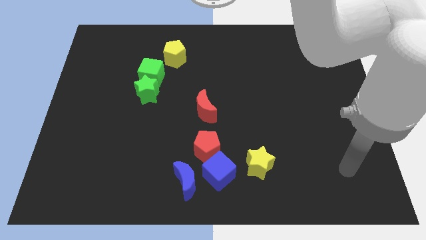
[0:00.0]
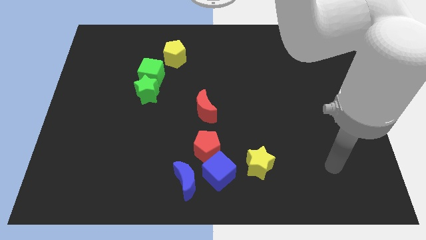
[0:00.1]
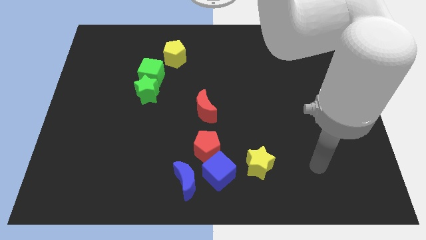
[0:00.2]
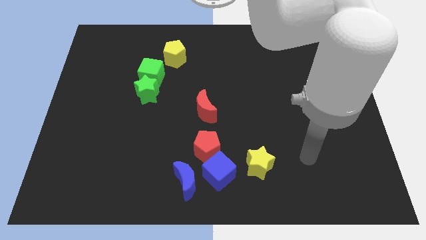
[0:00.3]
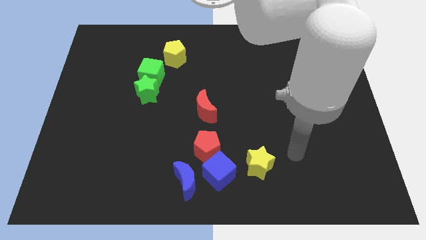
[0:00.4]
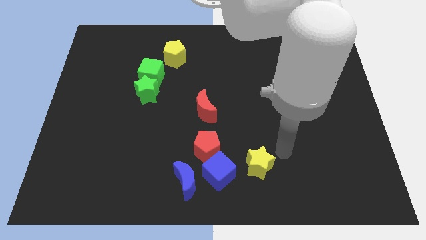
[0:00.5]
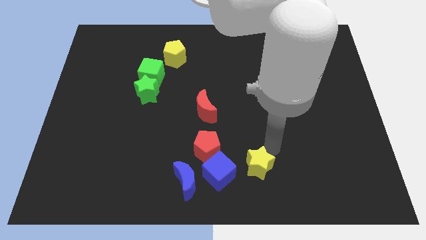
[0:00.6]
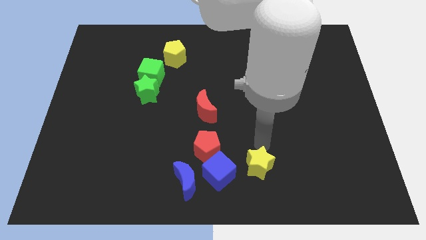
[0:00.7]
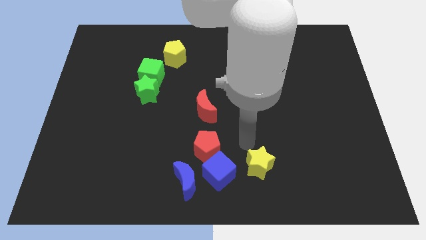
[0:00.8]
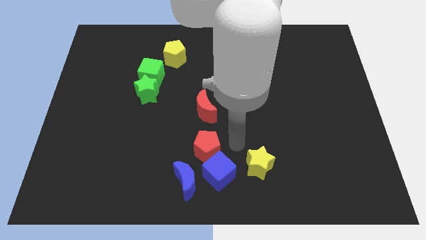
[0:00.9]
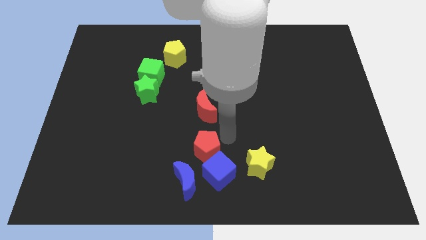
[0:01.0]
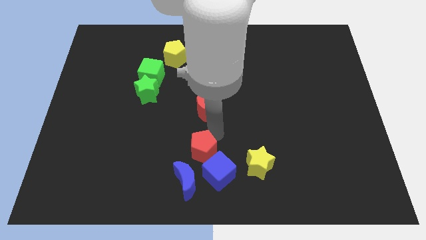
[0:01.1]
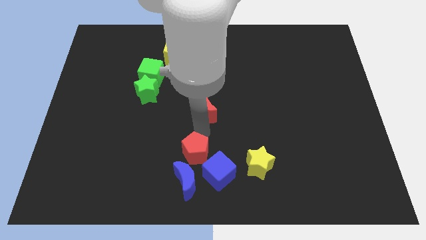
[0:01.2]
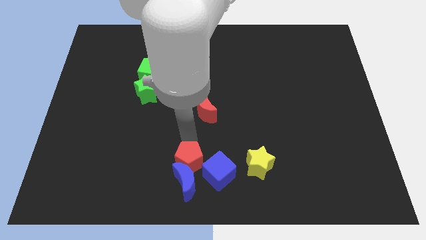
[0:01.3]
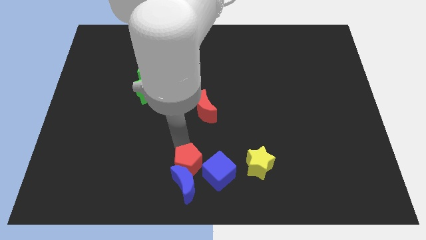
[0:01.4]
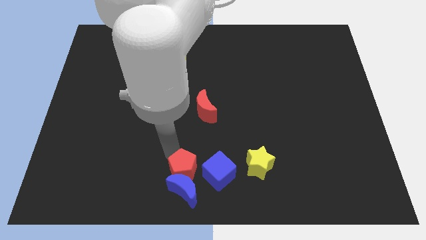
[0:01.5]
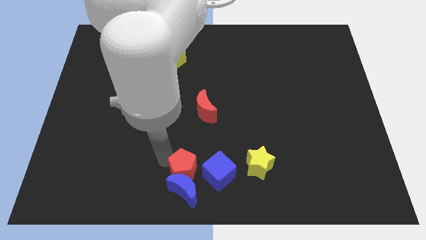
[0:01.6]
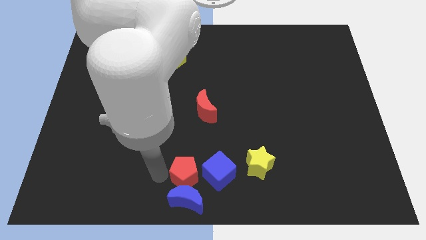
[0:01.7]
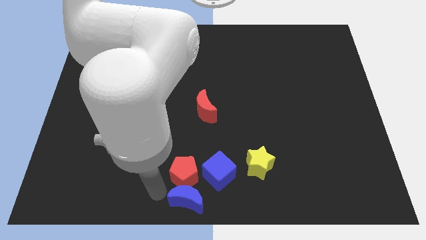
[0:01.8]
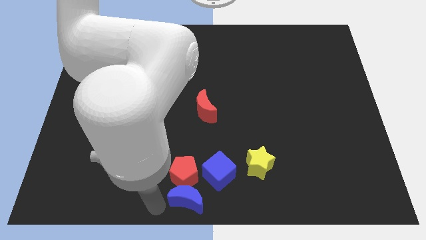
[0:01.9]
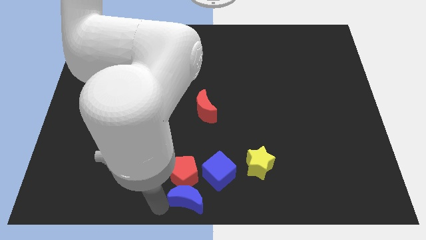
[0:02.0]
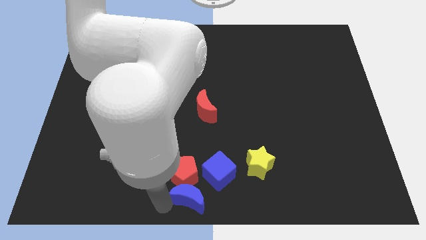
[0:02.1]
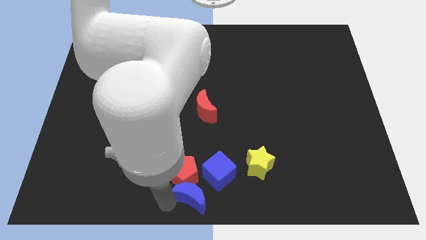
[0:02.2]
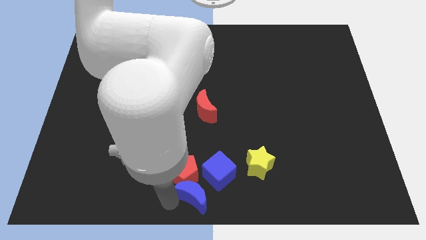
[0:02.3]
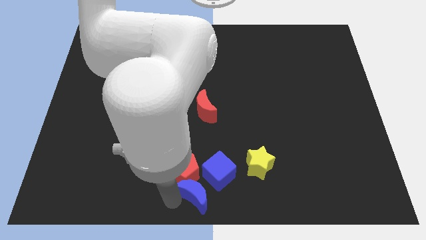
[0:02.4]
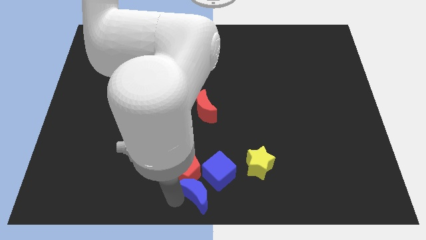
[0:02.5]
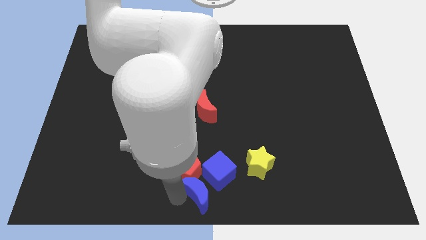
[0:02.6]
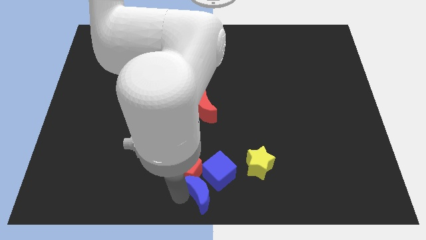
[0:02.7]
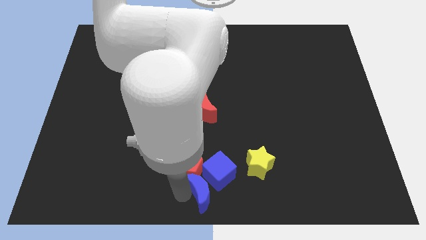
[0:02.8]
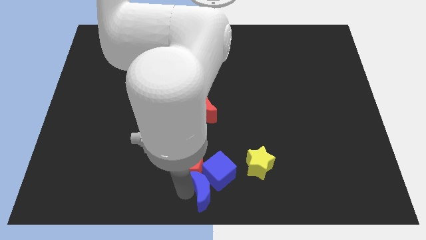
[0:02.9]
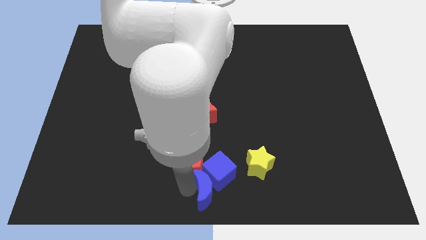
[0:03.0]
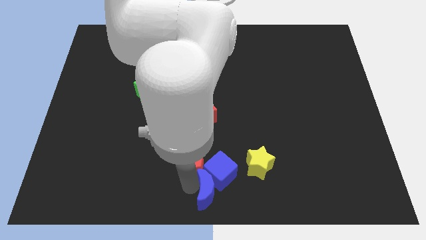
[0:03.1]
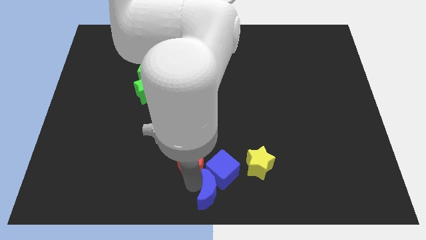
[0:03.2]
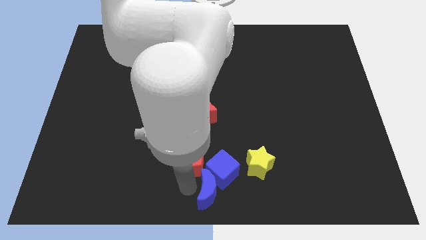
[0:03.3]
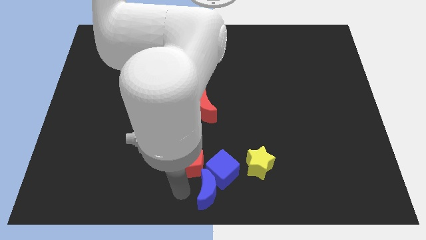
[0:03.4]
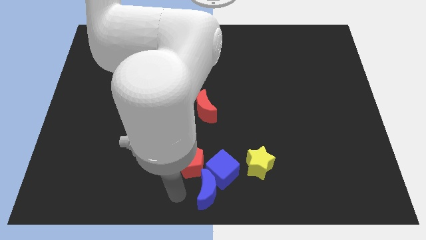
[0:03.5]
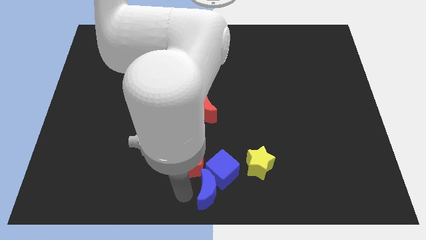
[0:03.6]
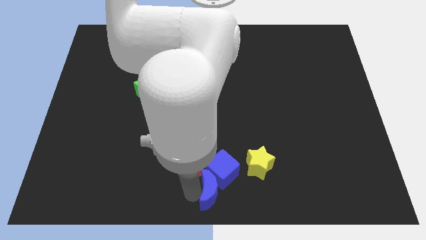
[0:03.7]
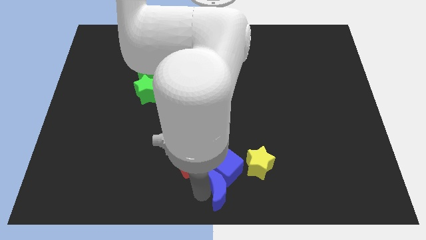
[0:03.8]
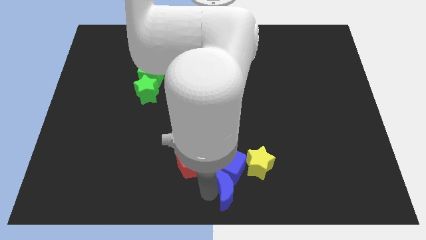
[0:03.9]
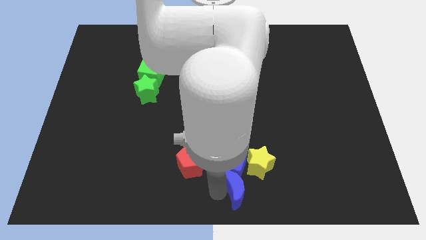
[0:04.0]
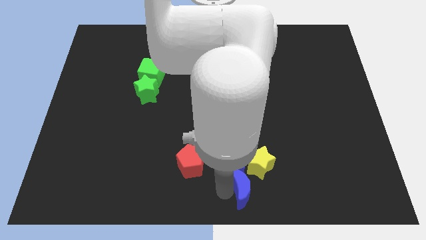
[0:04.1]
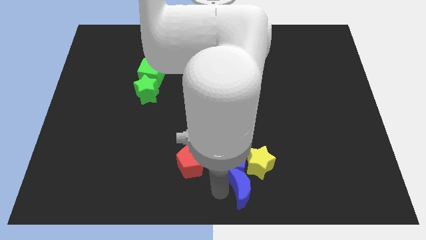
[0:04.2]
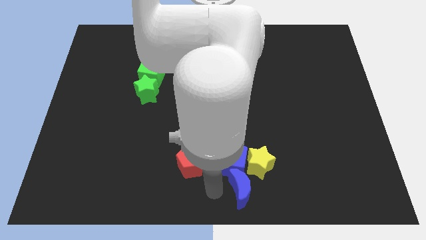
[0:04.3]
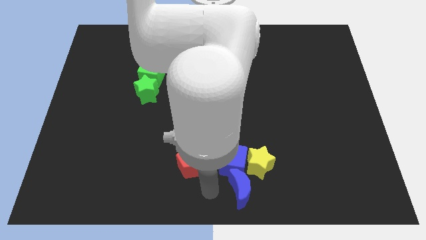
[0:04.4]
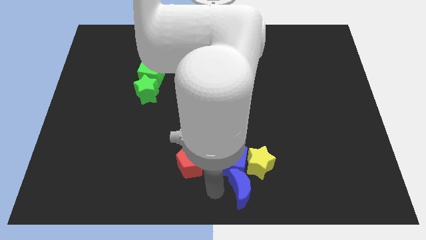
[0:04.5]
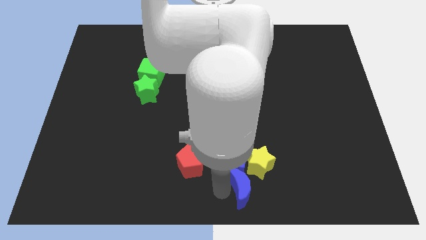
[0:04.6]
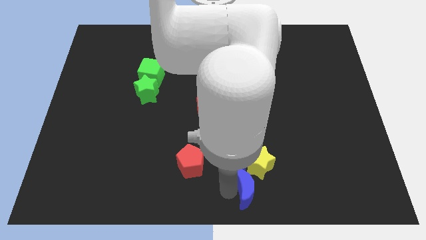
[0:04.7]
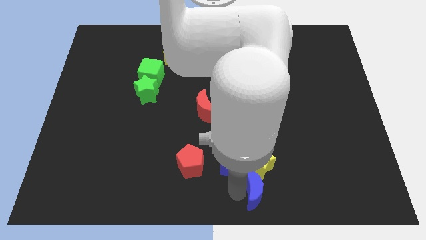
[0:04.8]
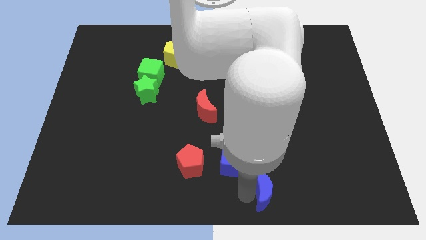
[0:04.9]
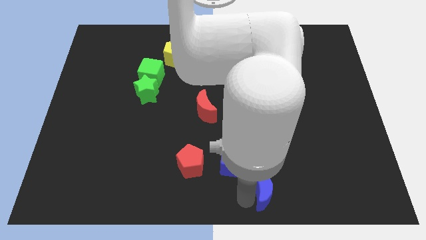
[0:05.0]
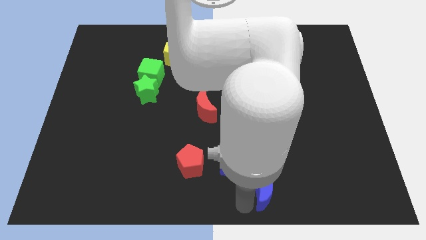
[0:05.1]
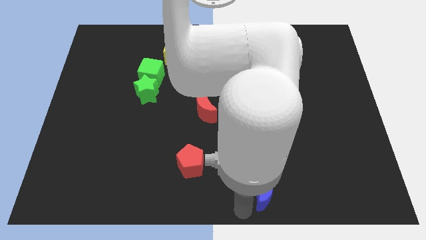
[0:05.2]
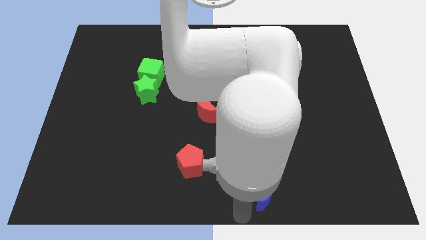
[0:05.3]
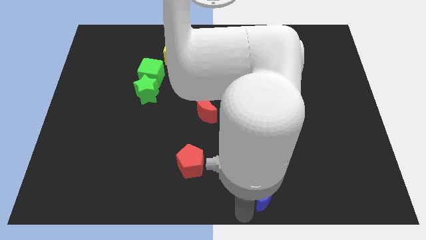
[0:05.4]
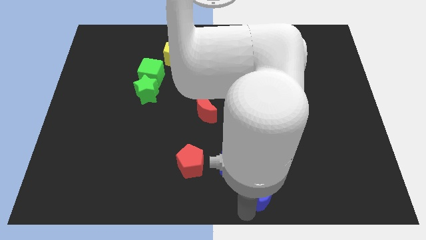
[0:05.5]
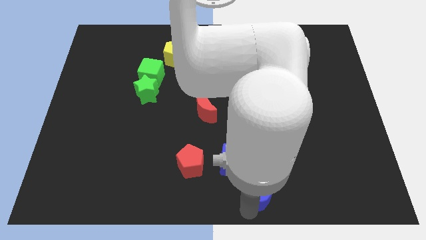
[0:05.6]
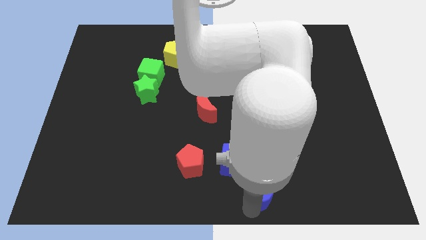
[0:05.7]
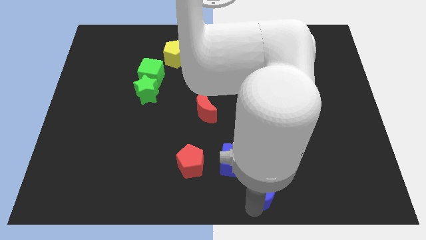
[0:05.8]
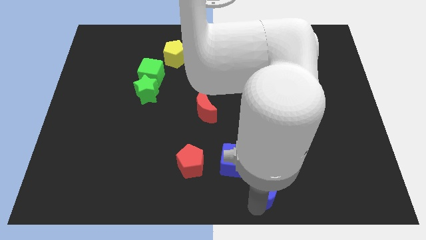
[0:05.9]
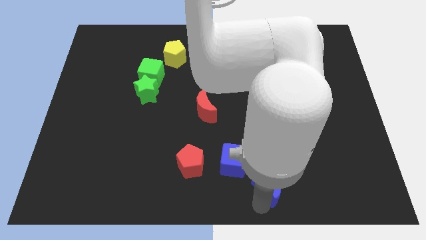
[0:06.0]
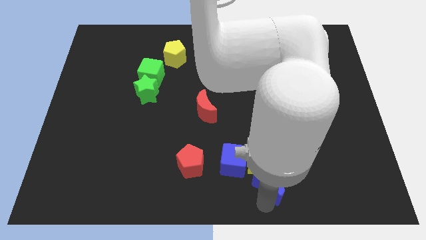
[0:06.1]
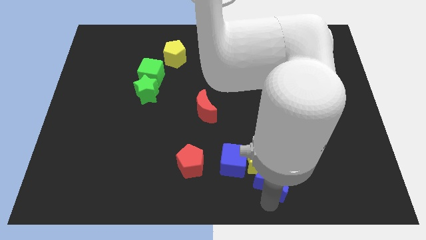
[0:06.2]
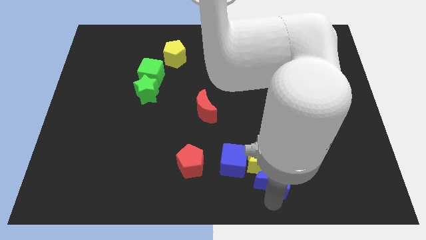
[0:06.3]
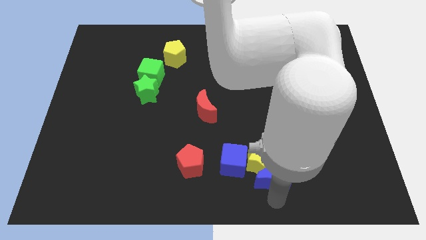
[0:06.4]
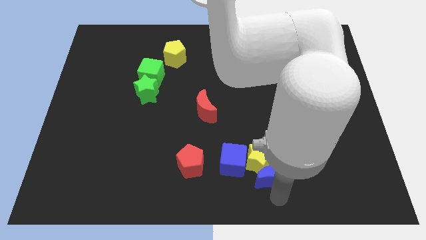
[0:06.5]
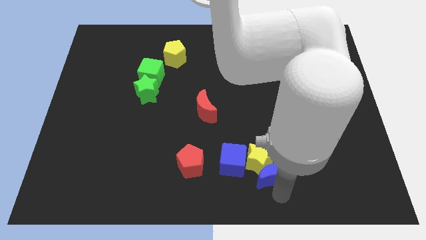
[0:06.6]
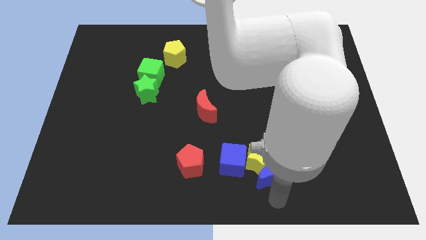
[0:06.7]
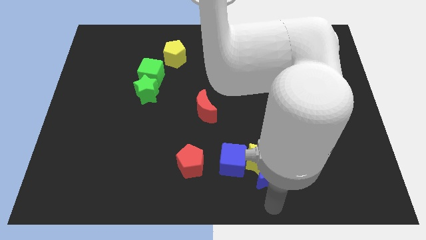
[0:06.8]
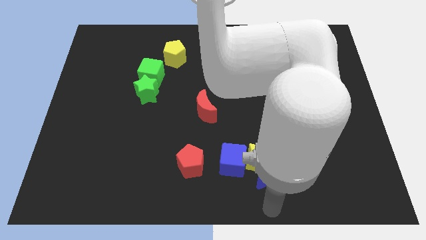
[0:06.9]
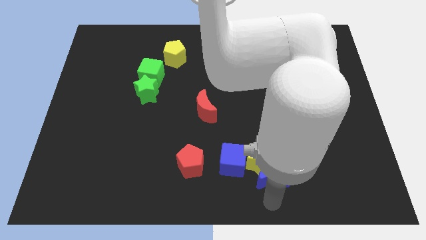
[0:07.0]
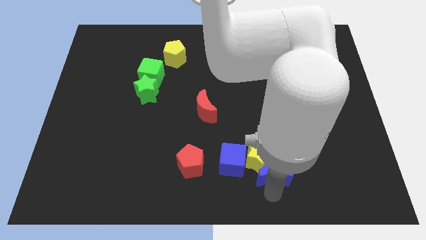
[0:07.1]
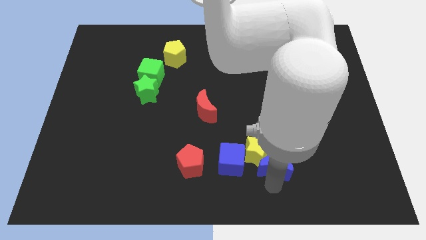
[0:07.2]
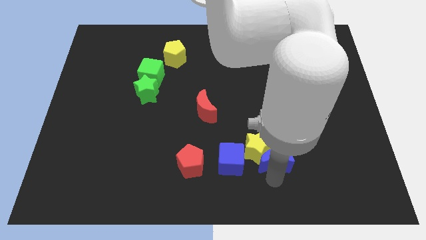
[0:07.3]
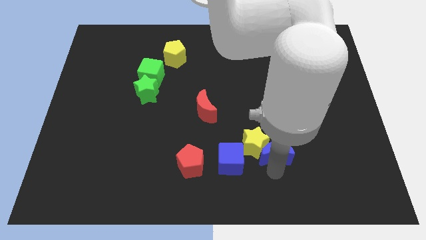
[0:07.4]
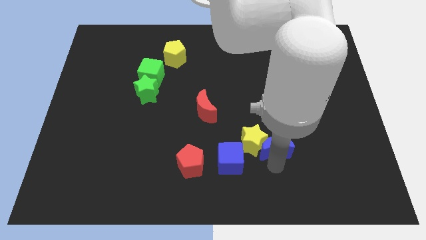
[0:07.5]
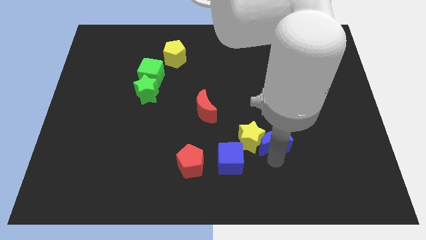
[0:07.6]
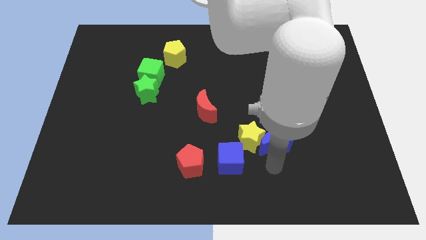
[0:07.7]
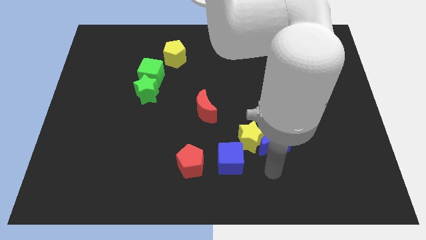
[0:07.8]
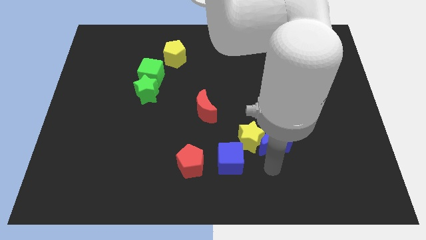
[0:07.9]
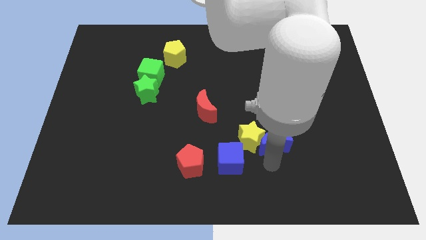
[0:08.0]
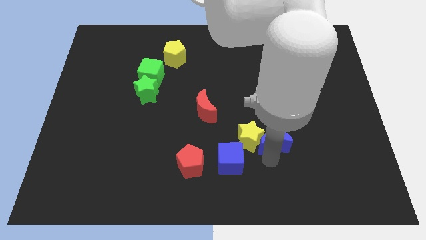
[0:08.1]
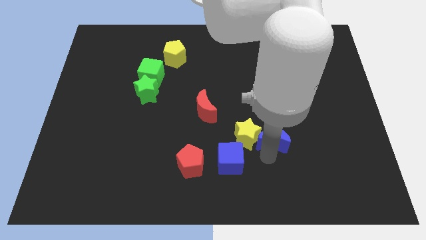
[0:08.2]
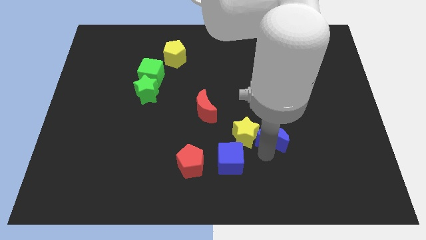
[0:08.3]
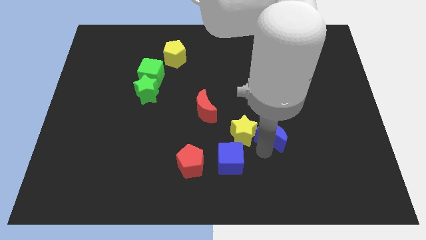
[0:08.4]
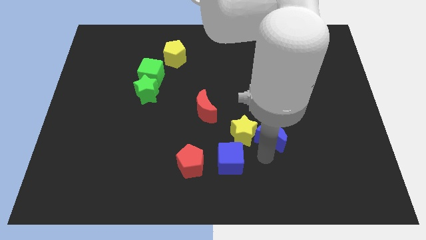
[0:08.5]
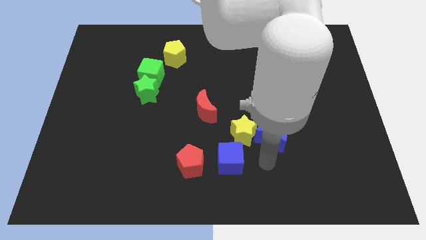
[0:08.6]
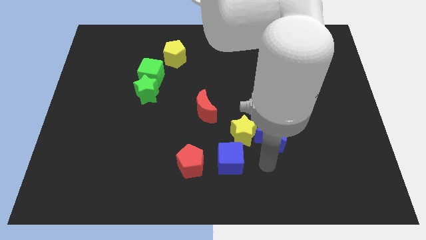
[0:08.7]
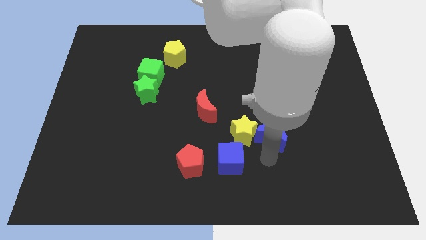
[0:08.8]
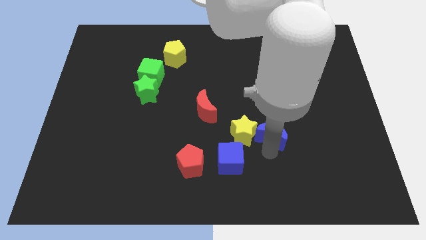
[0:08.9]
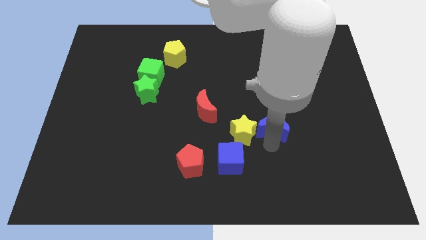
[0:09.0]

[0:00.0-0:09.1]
push the blue moon up and then right
